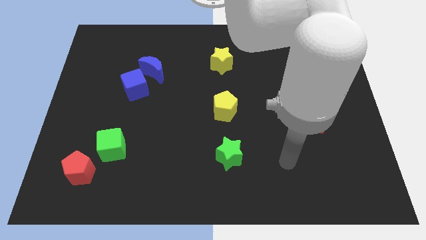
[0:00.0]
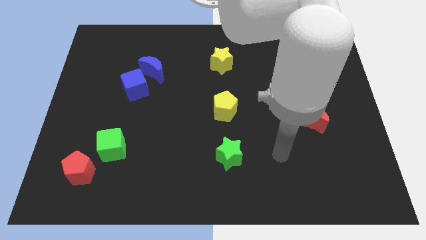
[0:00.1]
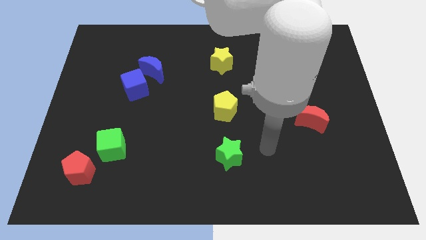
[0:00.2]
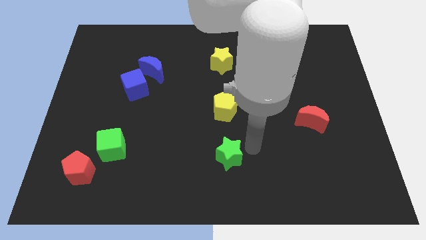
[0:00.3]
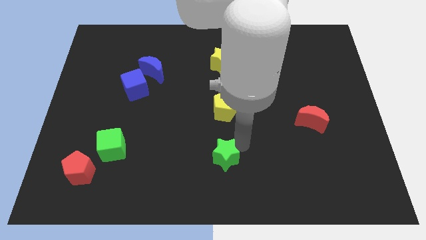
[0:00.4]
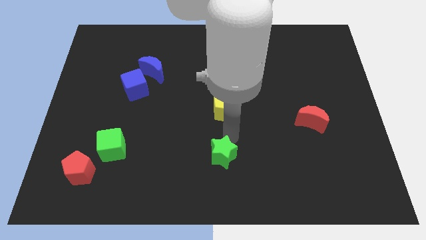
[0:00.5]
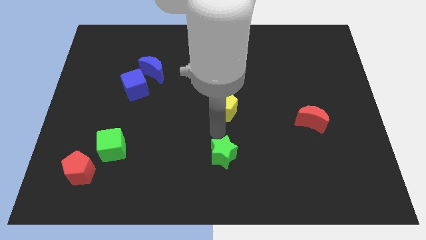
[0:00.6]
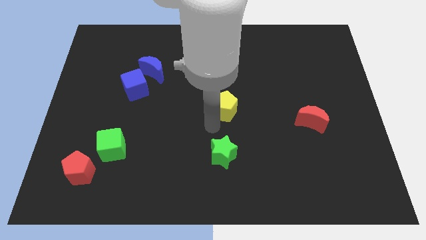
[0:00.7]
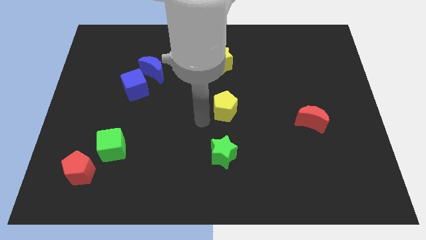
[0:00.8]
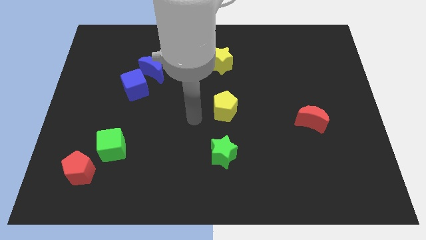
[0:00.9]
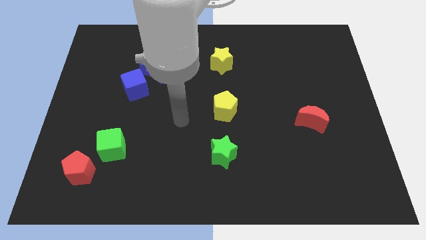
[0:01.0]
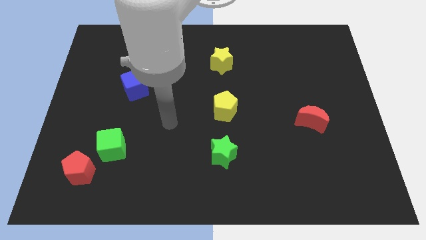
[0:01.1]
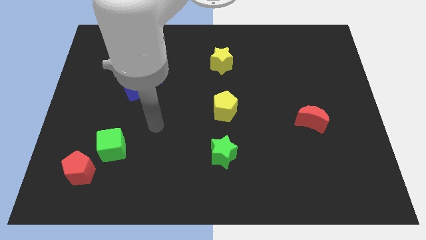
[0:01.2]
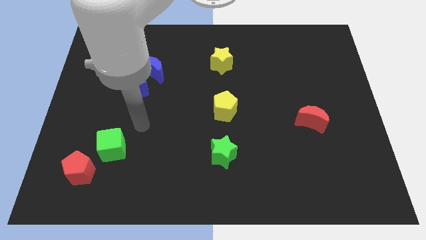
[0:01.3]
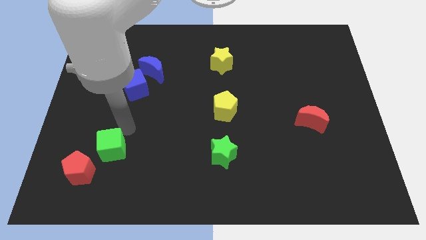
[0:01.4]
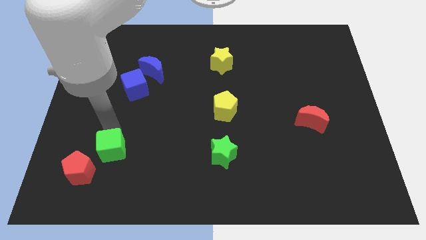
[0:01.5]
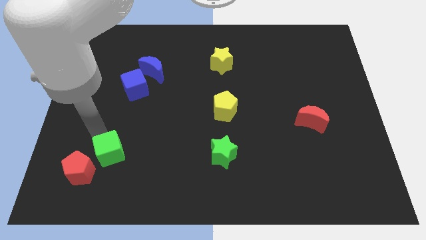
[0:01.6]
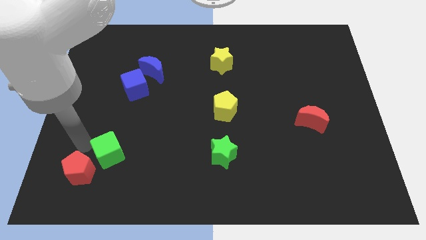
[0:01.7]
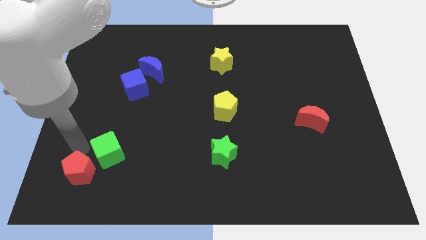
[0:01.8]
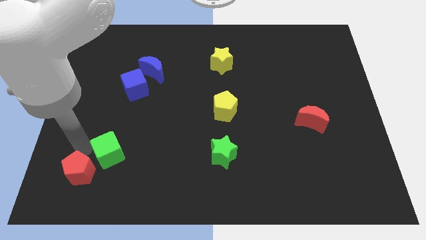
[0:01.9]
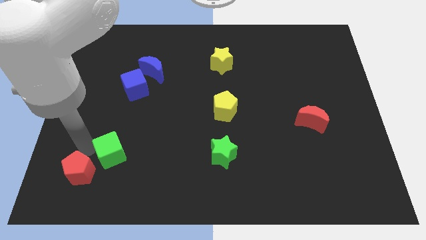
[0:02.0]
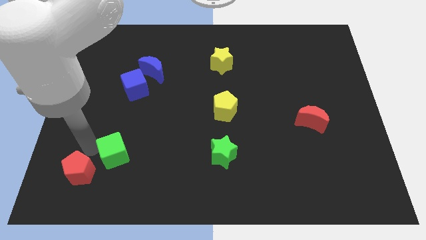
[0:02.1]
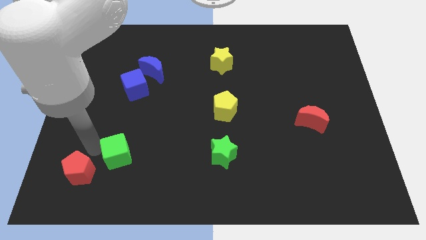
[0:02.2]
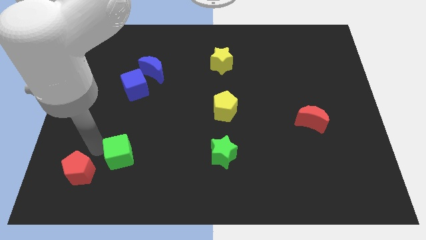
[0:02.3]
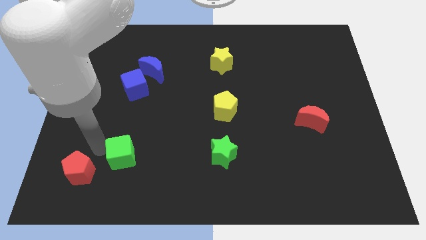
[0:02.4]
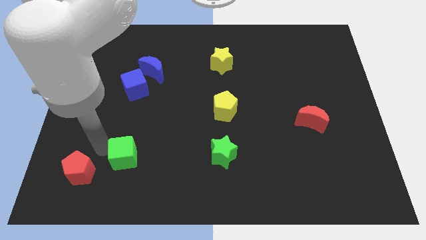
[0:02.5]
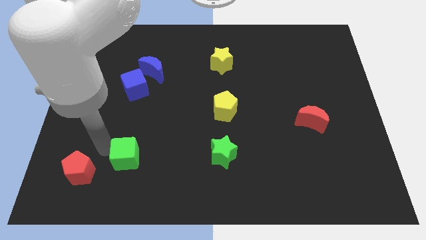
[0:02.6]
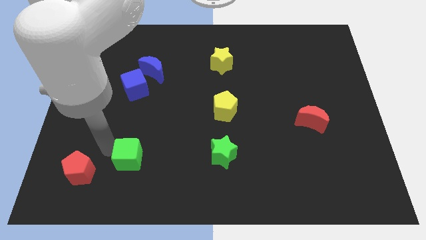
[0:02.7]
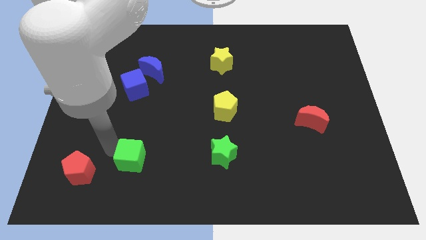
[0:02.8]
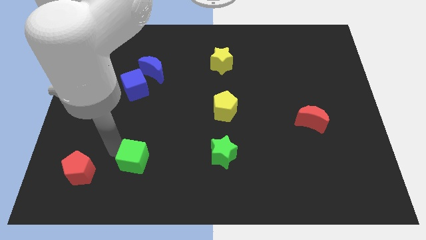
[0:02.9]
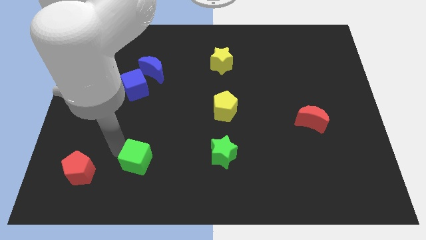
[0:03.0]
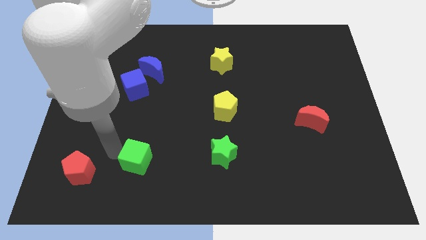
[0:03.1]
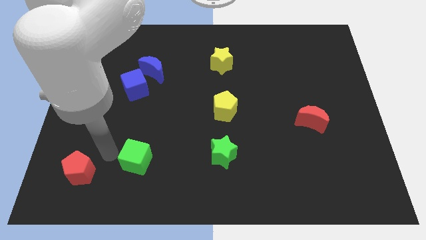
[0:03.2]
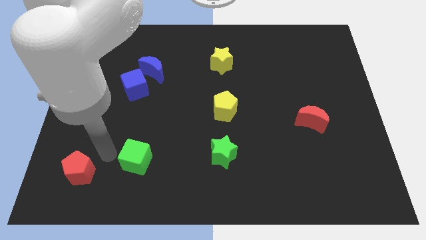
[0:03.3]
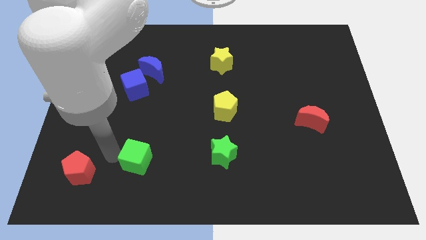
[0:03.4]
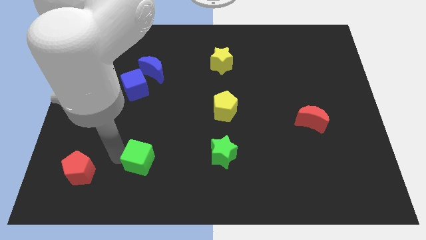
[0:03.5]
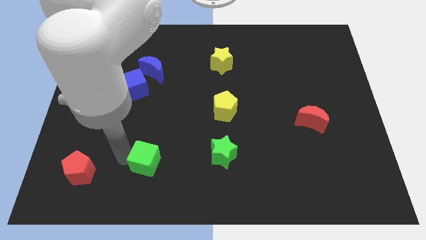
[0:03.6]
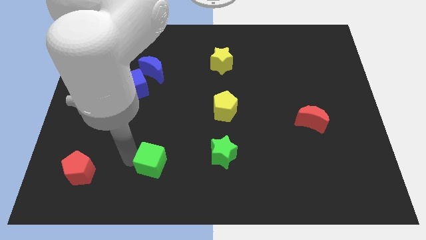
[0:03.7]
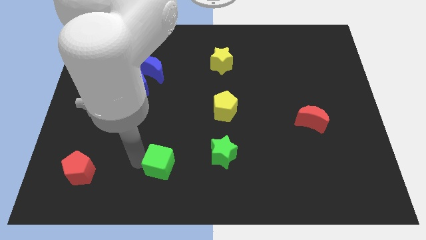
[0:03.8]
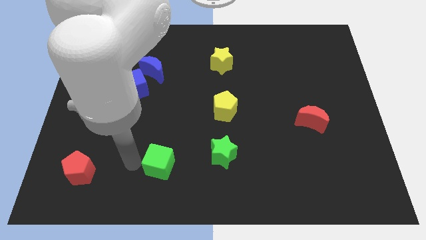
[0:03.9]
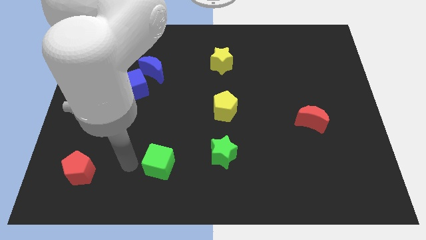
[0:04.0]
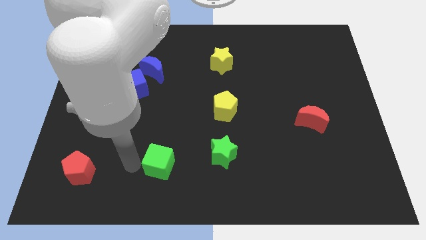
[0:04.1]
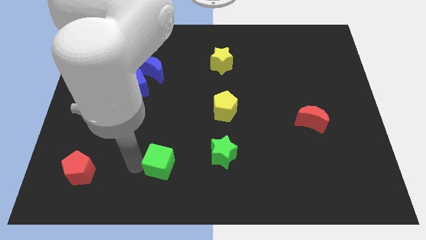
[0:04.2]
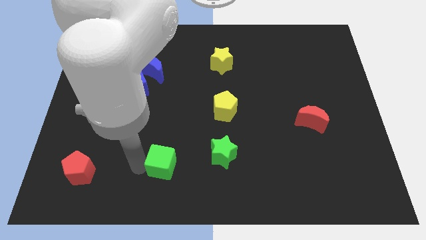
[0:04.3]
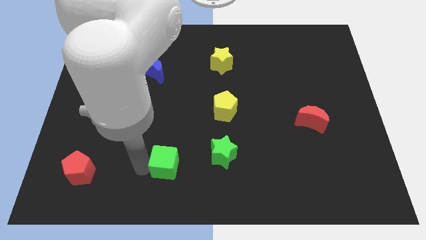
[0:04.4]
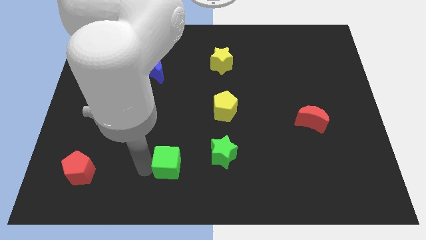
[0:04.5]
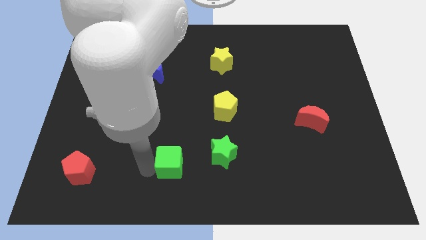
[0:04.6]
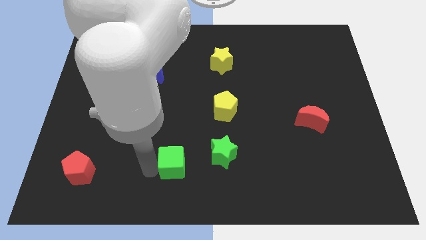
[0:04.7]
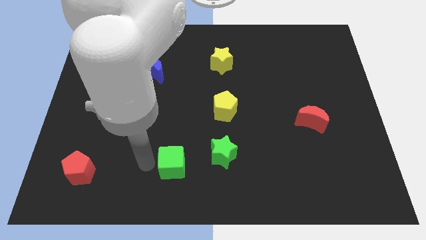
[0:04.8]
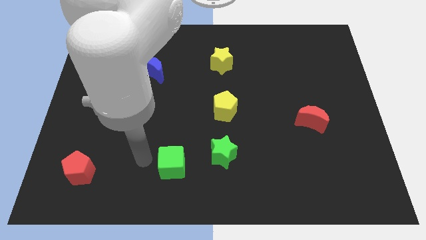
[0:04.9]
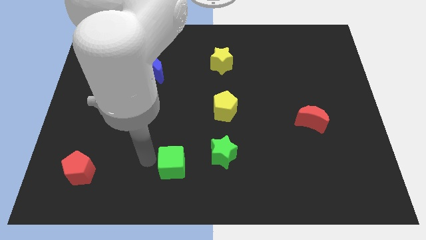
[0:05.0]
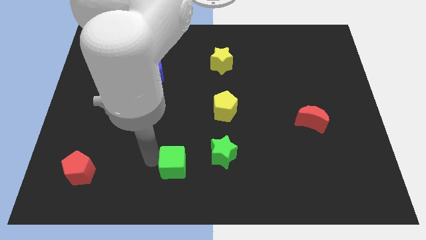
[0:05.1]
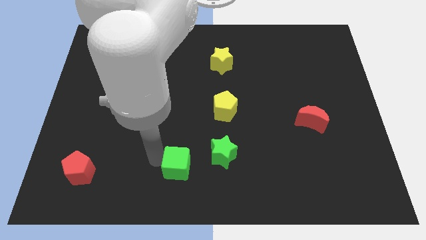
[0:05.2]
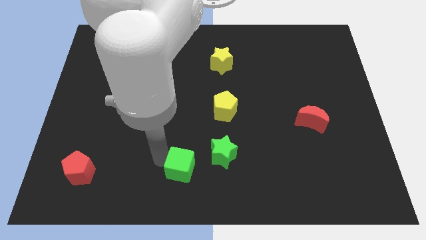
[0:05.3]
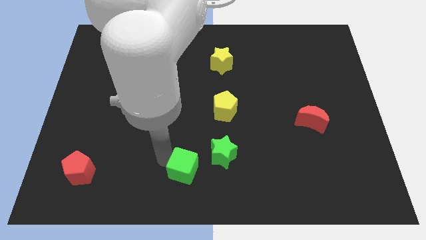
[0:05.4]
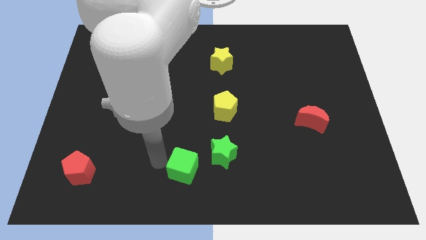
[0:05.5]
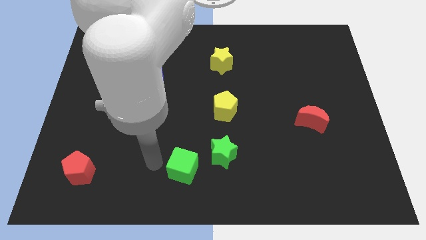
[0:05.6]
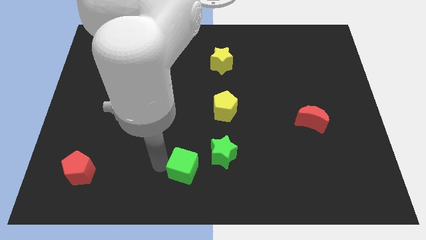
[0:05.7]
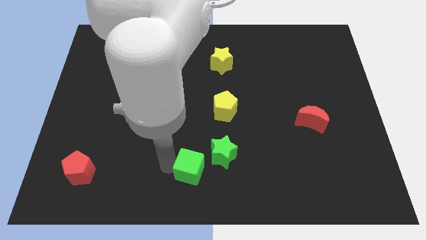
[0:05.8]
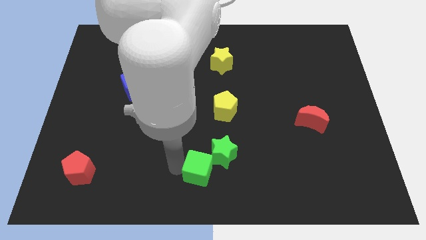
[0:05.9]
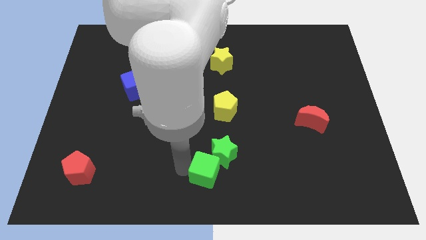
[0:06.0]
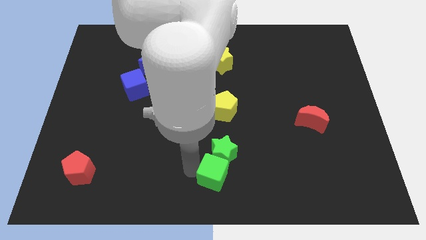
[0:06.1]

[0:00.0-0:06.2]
push the green cube to the bottom right of the green star
